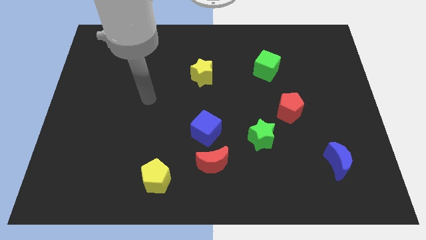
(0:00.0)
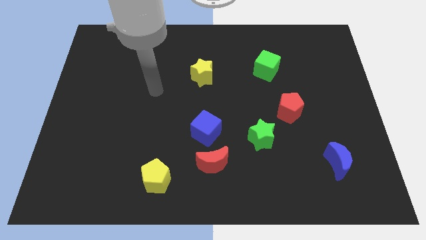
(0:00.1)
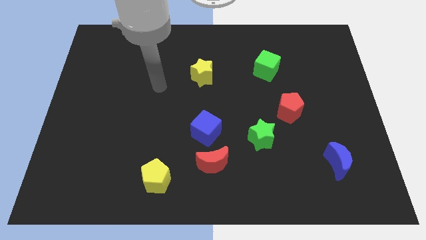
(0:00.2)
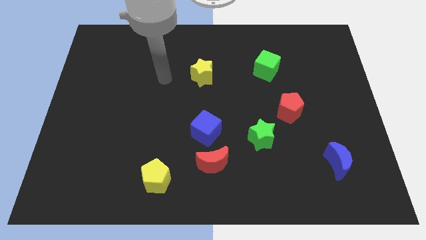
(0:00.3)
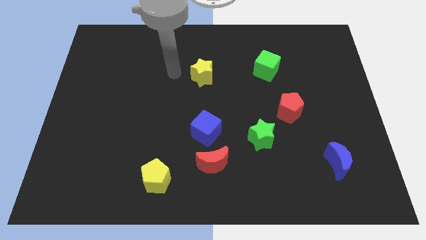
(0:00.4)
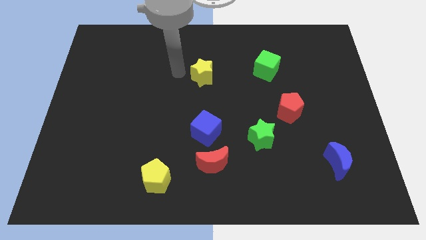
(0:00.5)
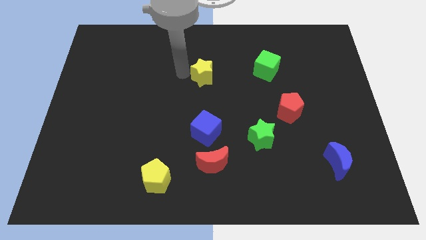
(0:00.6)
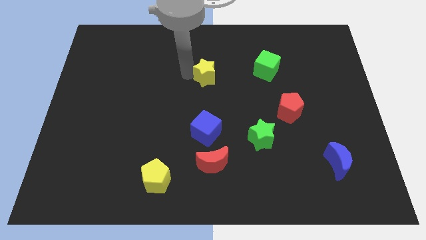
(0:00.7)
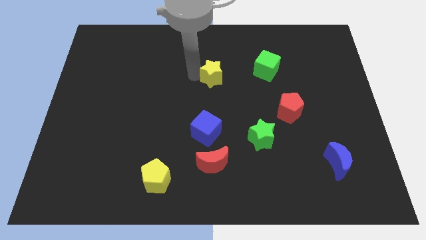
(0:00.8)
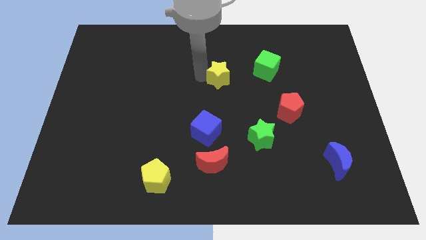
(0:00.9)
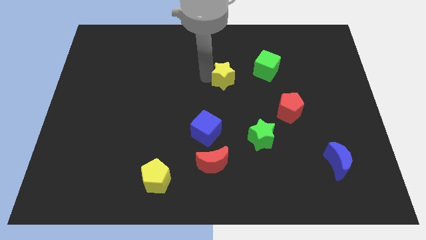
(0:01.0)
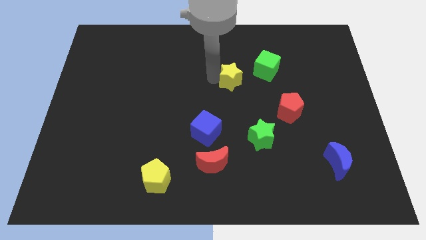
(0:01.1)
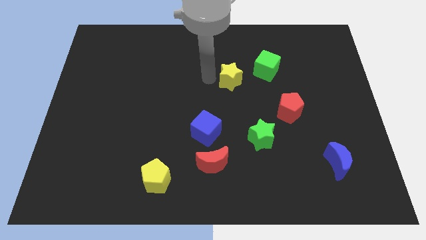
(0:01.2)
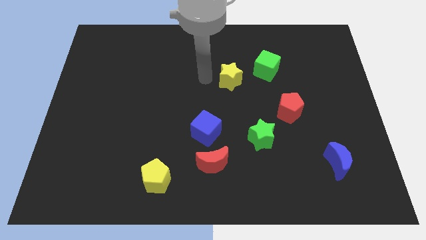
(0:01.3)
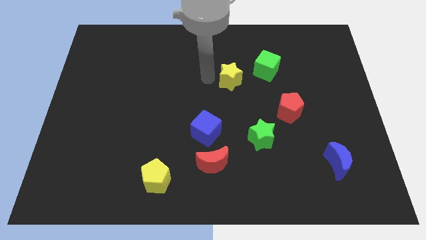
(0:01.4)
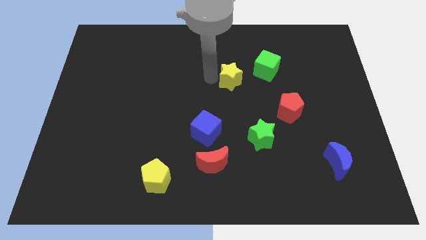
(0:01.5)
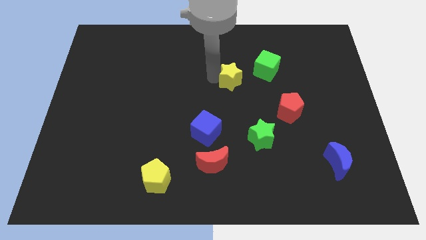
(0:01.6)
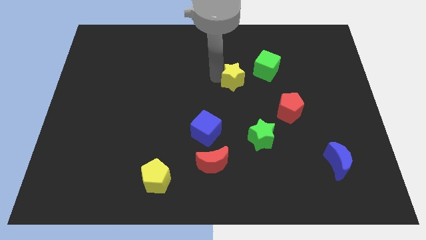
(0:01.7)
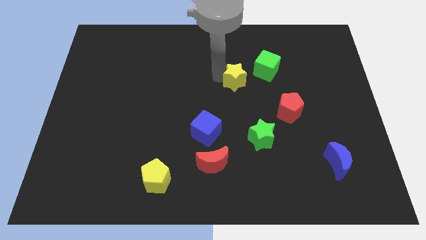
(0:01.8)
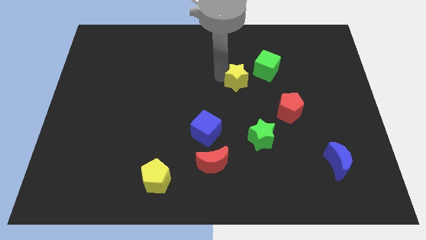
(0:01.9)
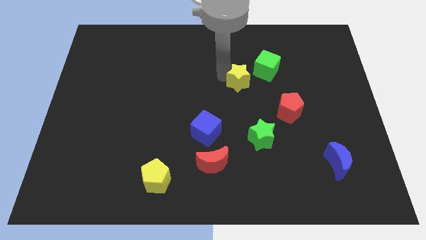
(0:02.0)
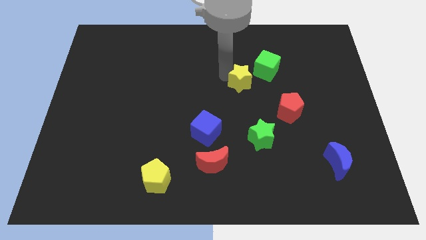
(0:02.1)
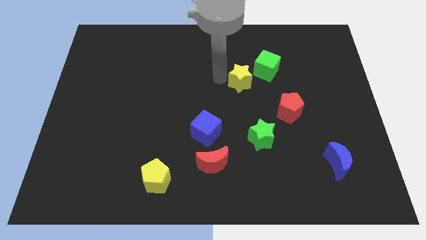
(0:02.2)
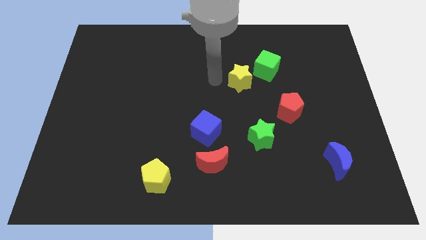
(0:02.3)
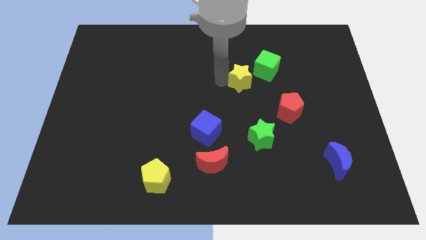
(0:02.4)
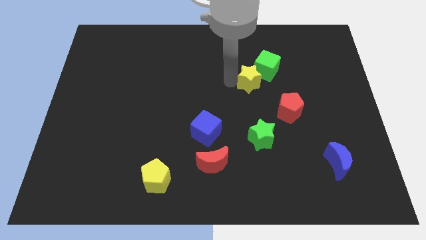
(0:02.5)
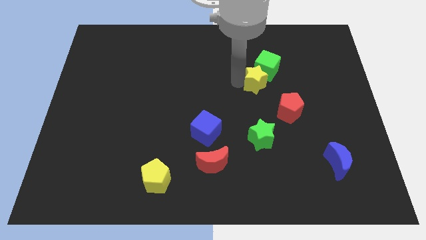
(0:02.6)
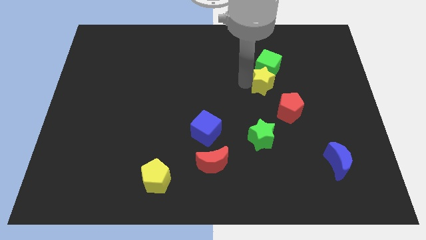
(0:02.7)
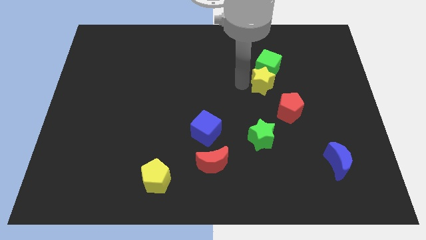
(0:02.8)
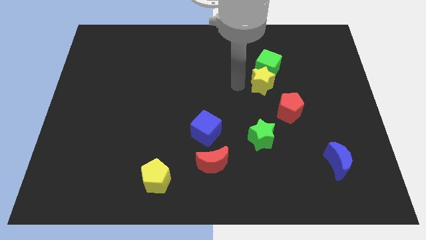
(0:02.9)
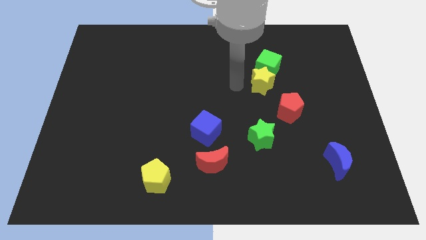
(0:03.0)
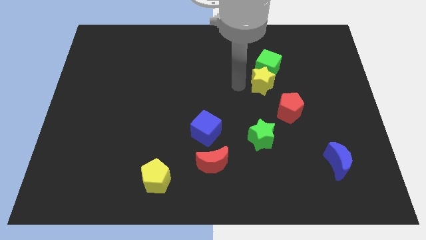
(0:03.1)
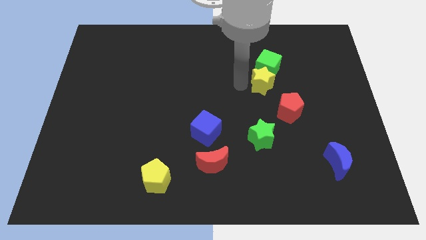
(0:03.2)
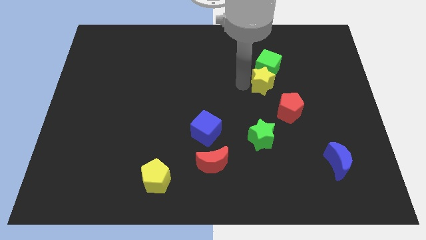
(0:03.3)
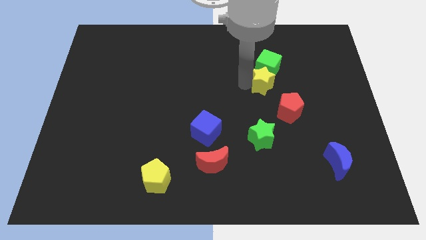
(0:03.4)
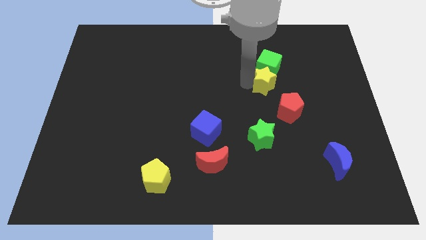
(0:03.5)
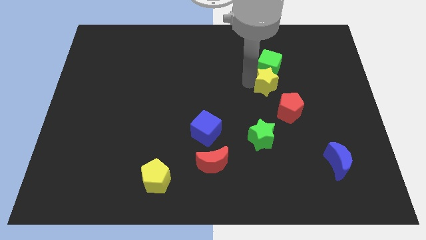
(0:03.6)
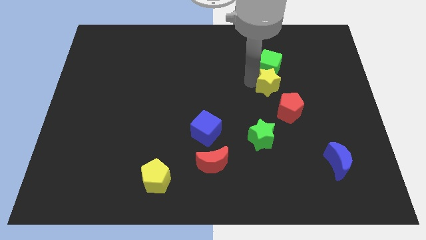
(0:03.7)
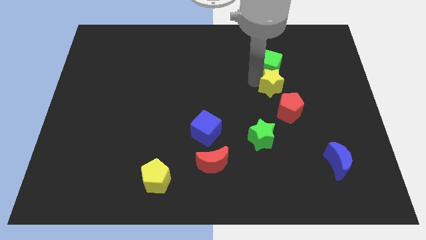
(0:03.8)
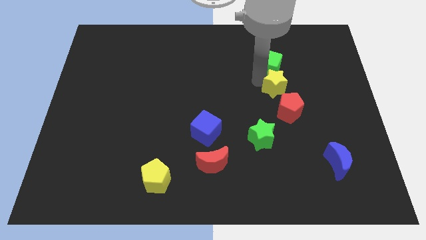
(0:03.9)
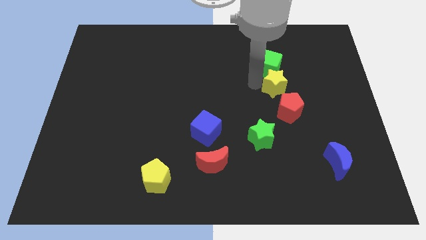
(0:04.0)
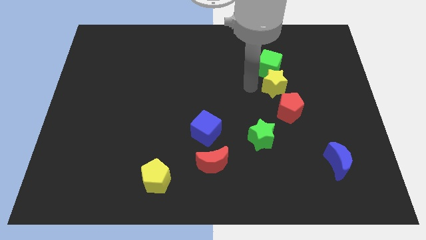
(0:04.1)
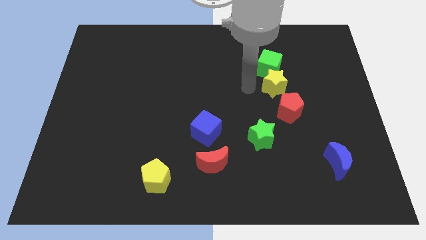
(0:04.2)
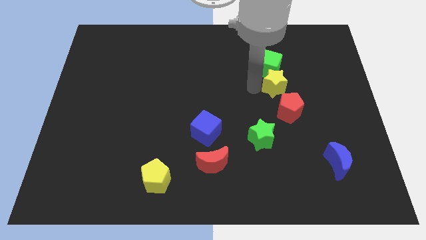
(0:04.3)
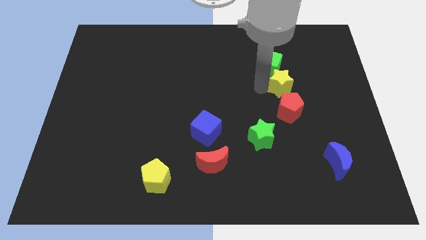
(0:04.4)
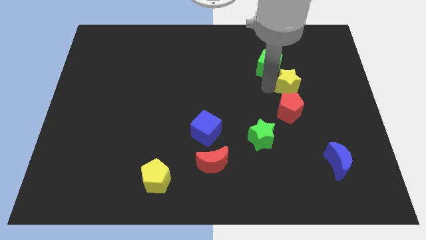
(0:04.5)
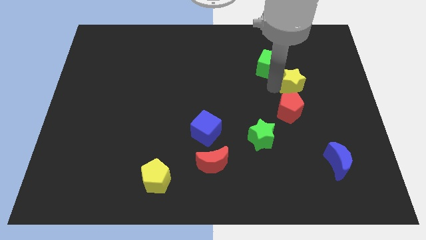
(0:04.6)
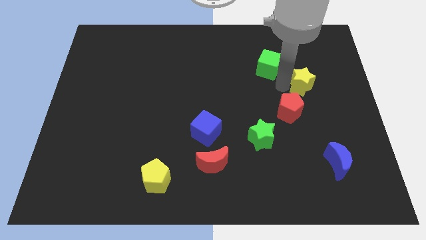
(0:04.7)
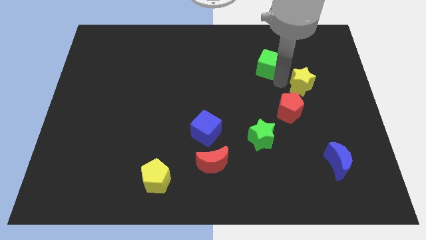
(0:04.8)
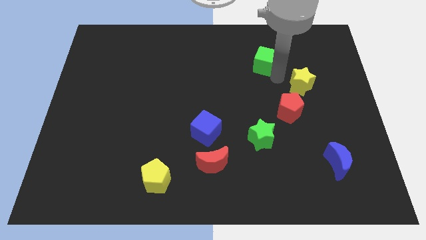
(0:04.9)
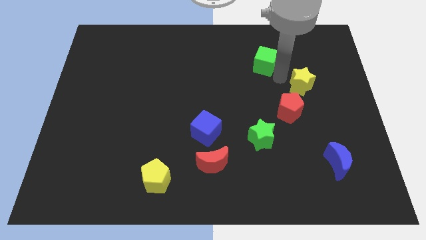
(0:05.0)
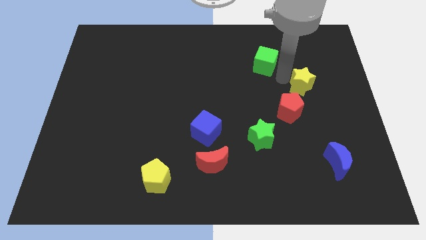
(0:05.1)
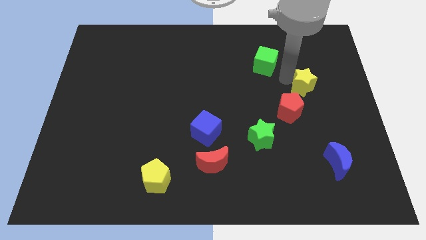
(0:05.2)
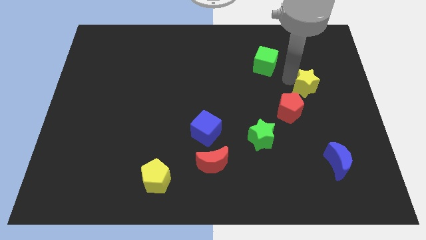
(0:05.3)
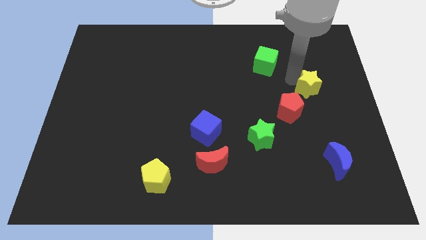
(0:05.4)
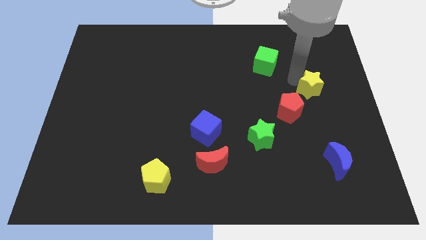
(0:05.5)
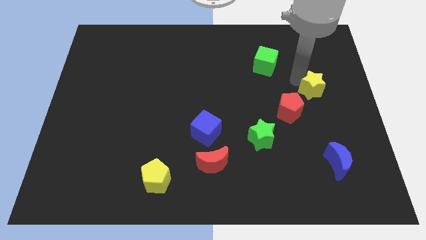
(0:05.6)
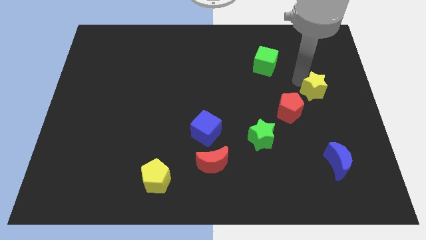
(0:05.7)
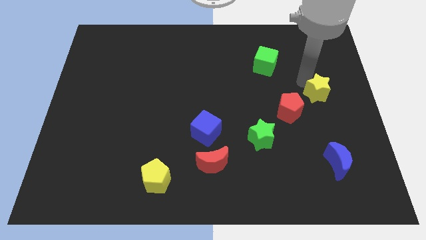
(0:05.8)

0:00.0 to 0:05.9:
push the yellow star to the center right

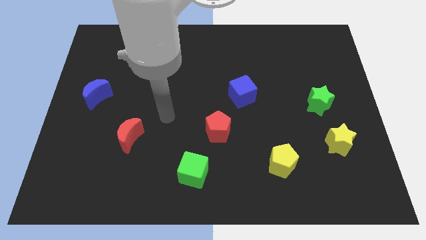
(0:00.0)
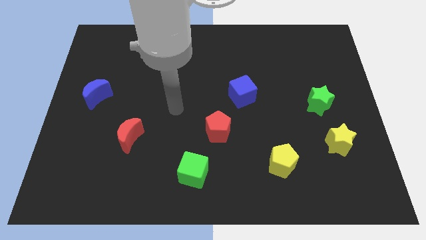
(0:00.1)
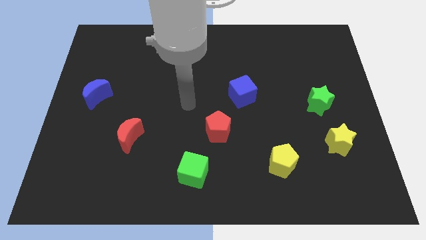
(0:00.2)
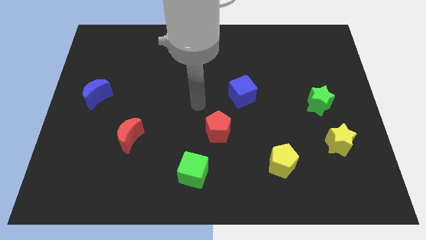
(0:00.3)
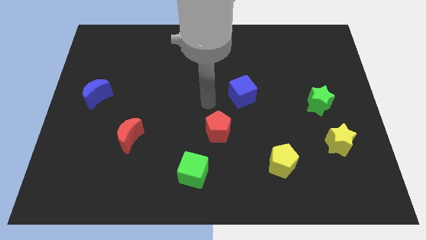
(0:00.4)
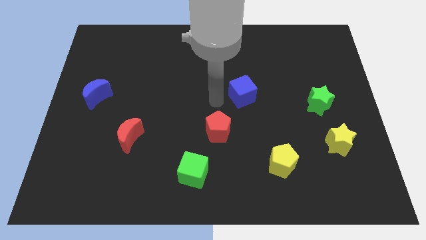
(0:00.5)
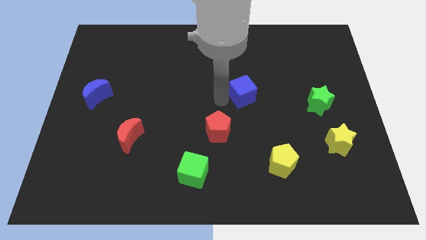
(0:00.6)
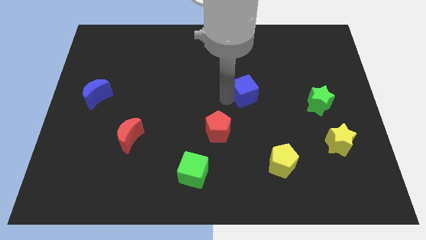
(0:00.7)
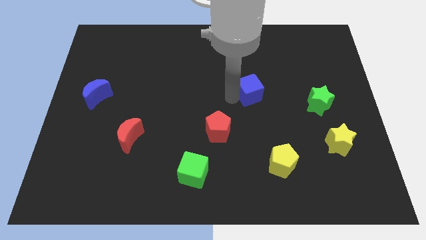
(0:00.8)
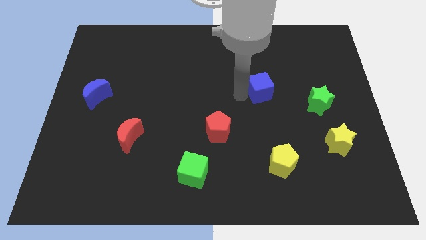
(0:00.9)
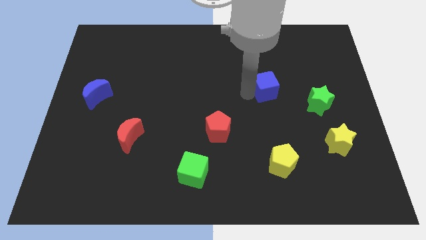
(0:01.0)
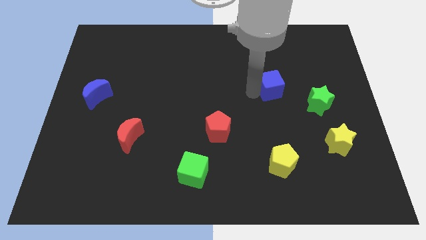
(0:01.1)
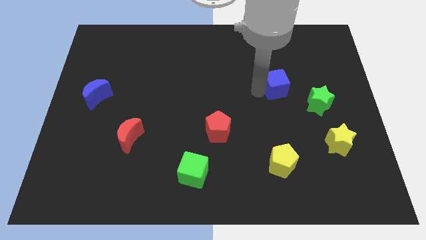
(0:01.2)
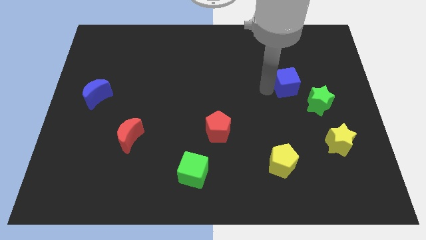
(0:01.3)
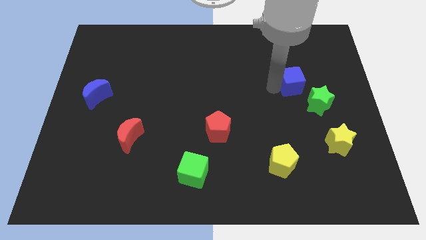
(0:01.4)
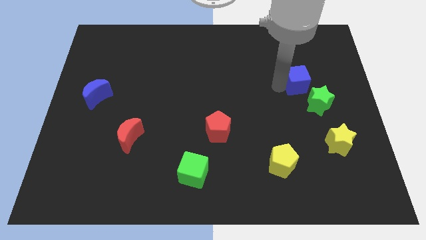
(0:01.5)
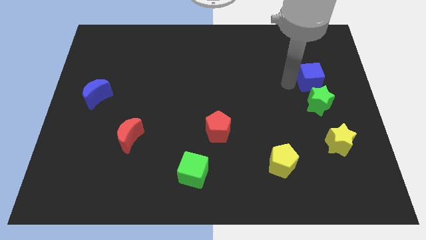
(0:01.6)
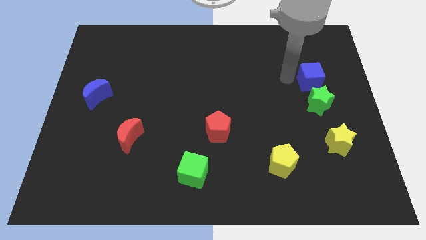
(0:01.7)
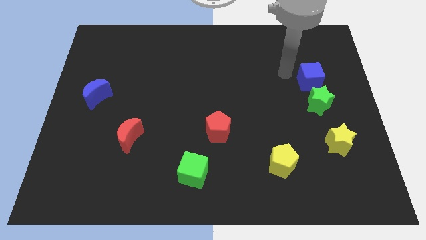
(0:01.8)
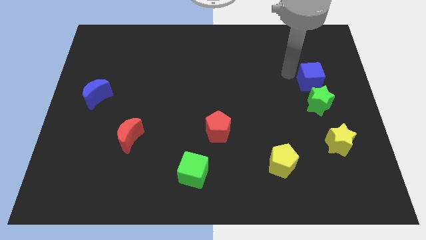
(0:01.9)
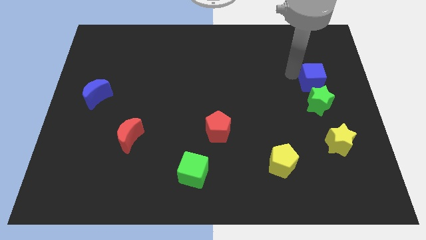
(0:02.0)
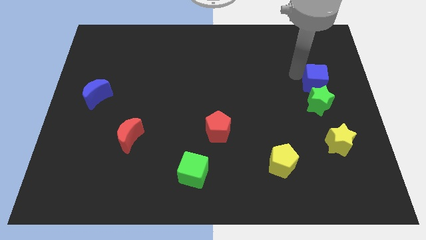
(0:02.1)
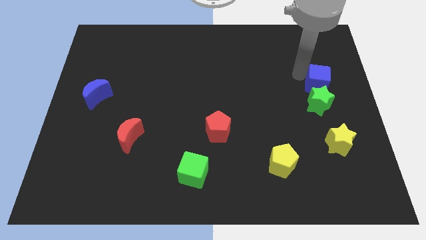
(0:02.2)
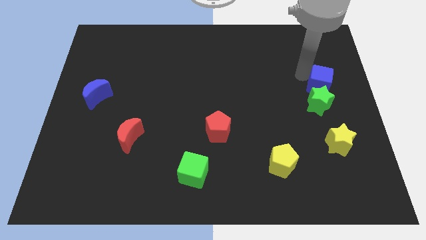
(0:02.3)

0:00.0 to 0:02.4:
put the blue cube to the right side of the board
